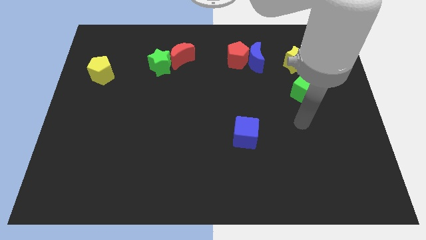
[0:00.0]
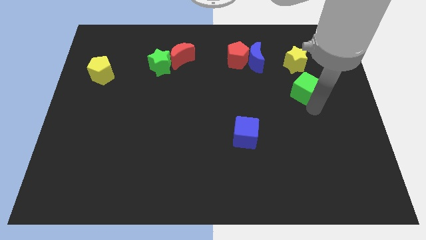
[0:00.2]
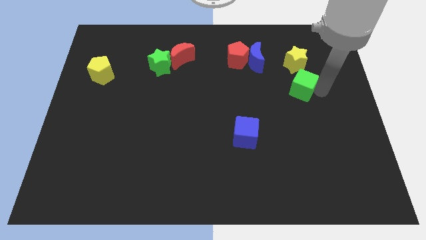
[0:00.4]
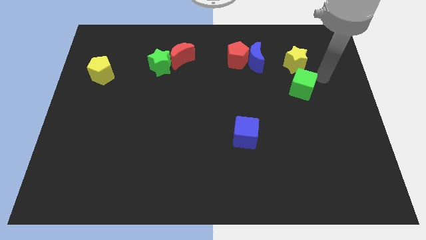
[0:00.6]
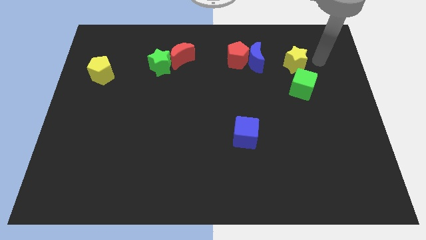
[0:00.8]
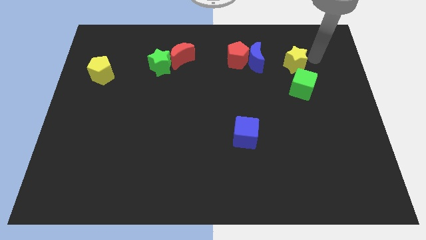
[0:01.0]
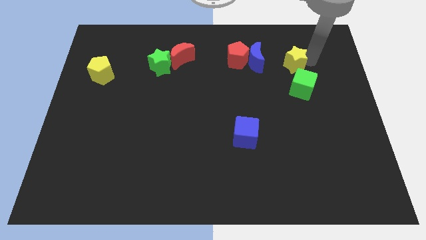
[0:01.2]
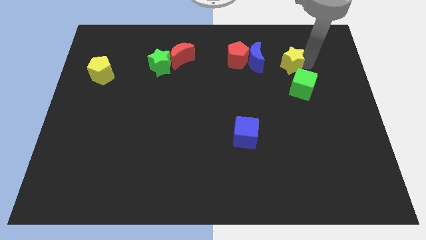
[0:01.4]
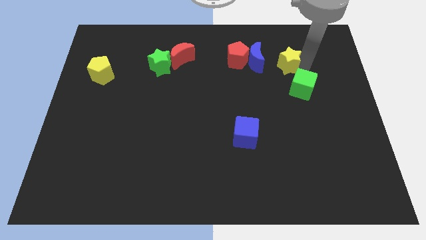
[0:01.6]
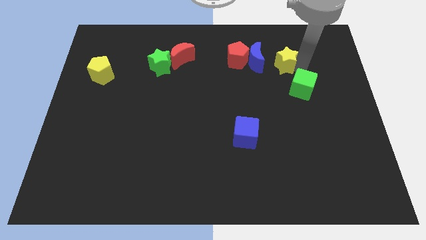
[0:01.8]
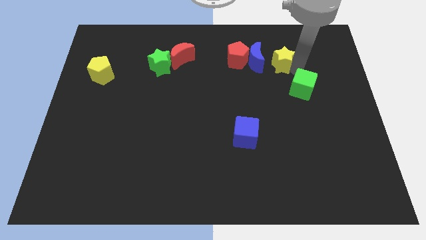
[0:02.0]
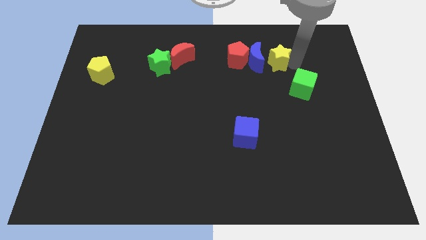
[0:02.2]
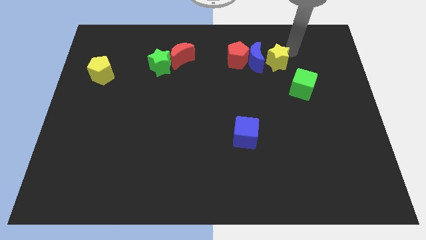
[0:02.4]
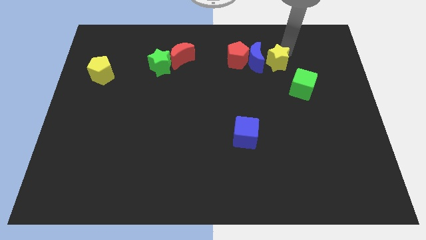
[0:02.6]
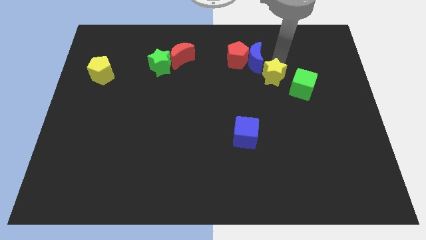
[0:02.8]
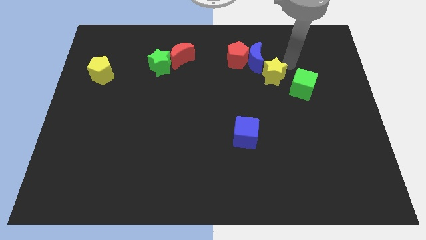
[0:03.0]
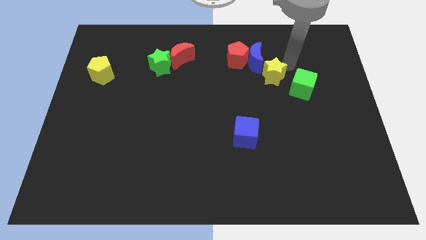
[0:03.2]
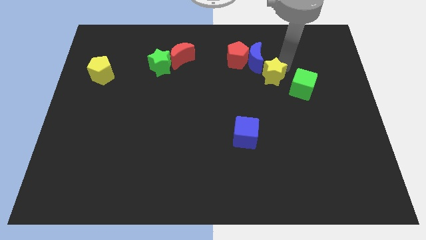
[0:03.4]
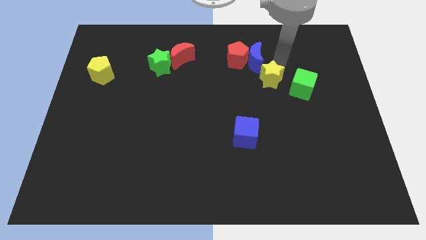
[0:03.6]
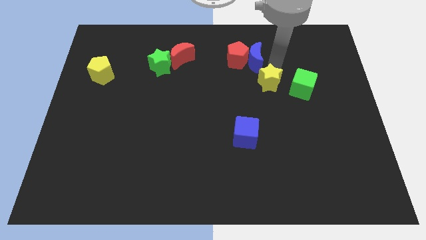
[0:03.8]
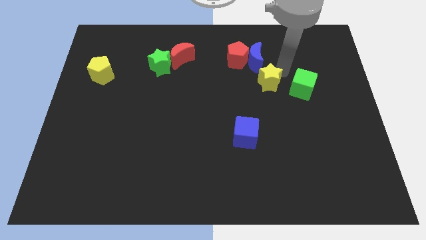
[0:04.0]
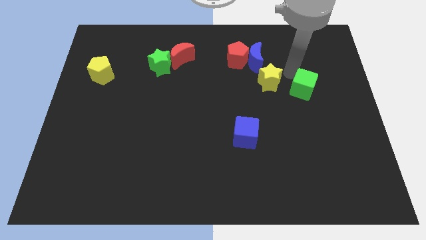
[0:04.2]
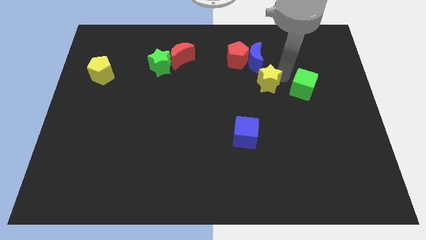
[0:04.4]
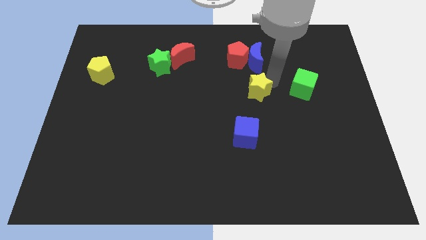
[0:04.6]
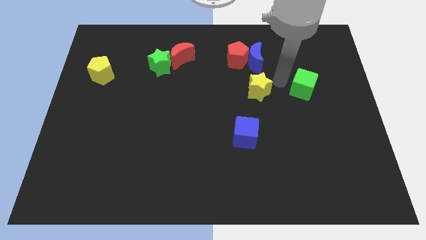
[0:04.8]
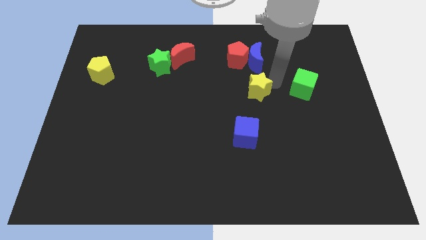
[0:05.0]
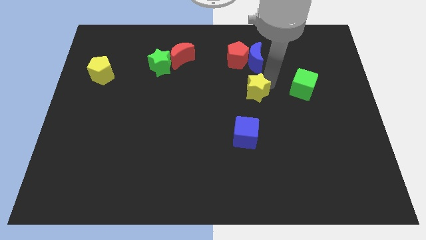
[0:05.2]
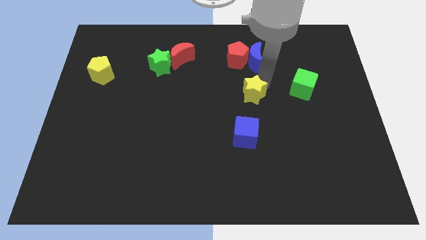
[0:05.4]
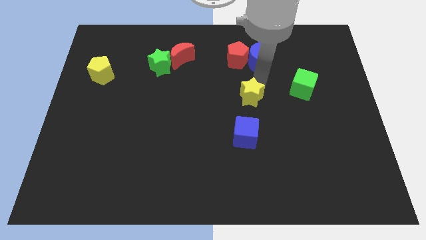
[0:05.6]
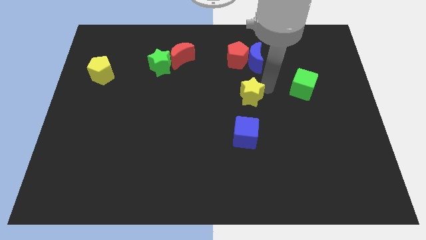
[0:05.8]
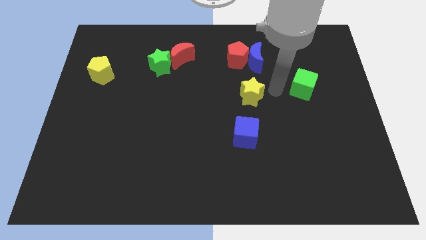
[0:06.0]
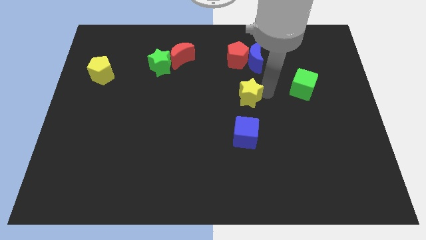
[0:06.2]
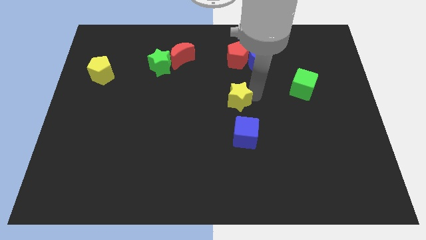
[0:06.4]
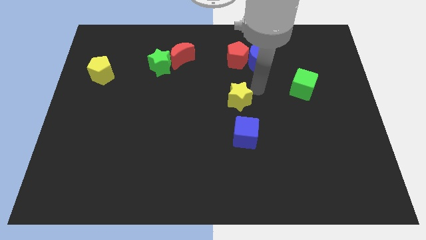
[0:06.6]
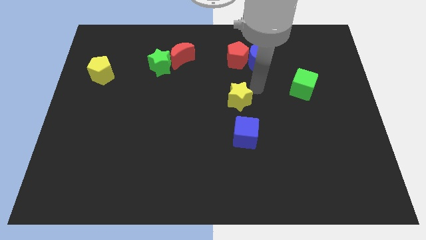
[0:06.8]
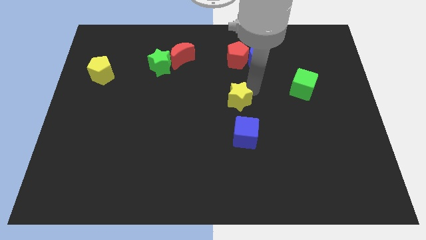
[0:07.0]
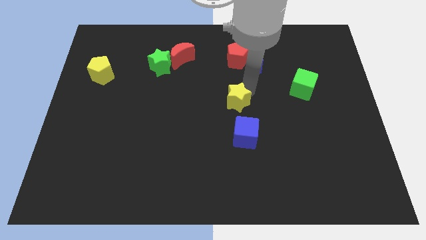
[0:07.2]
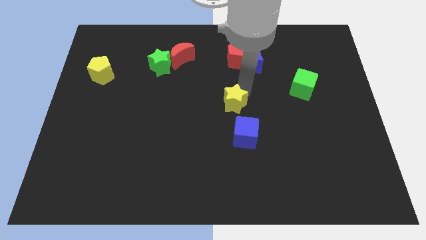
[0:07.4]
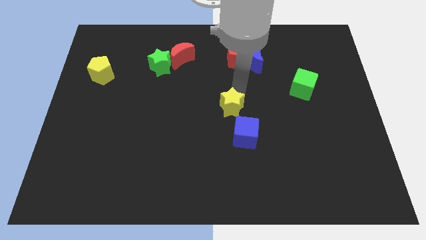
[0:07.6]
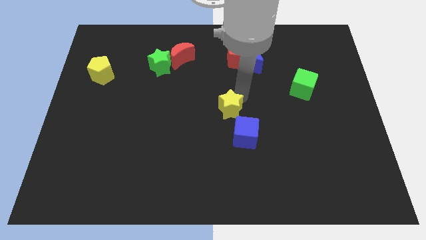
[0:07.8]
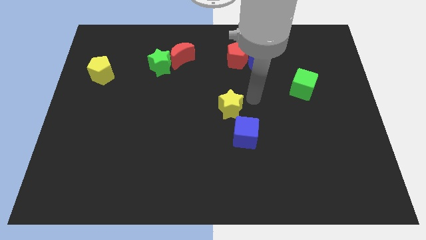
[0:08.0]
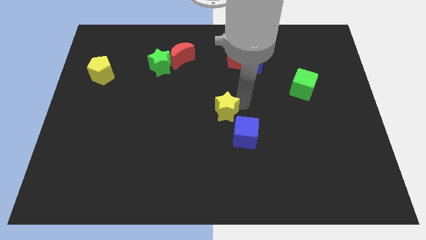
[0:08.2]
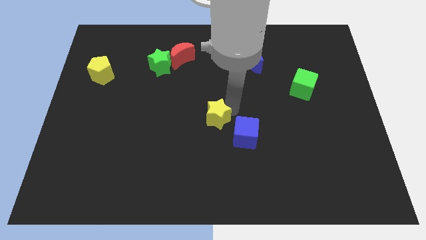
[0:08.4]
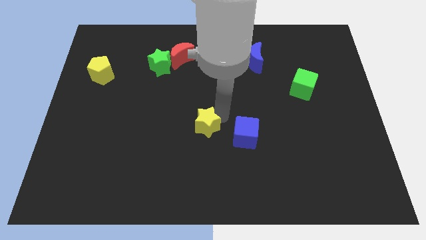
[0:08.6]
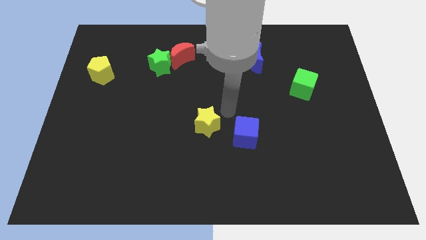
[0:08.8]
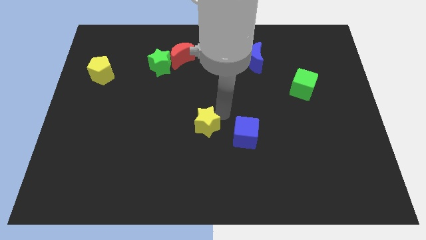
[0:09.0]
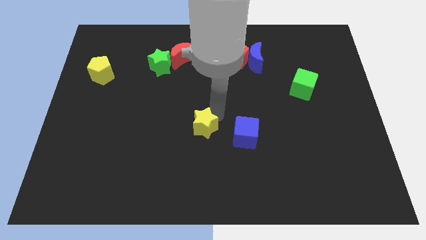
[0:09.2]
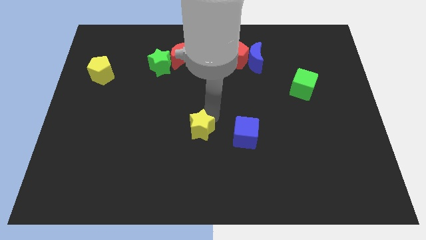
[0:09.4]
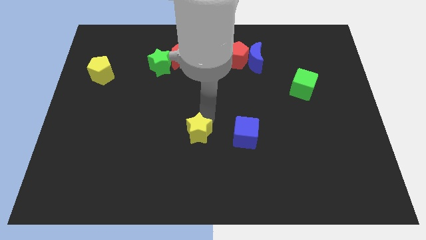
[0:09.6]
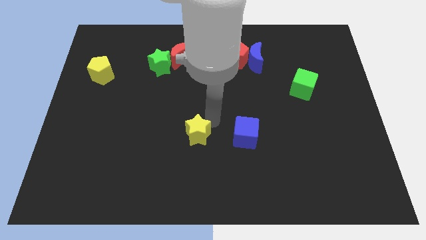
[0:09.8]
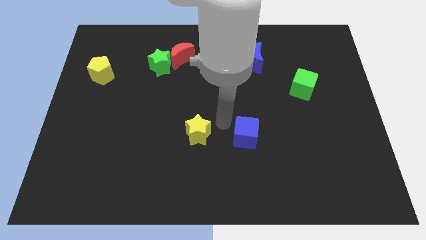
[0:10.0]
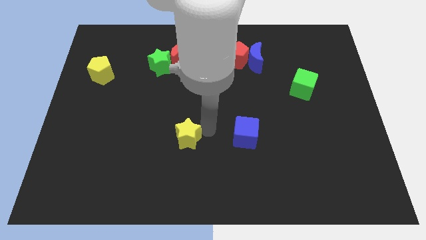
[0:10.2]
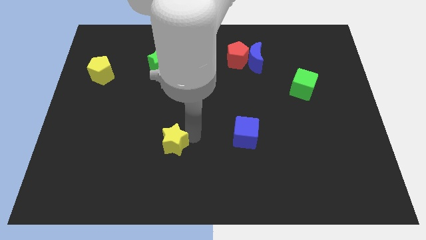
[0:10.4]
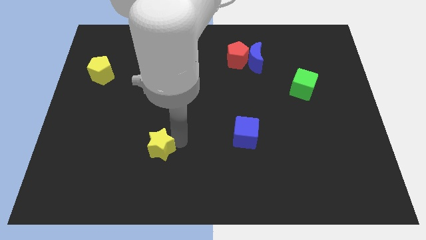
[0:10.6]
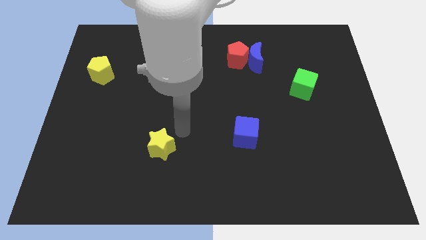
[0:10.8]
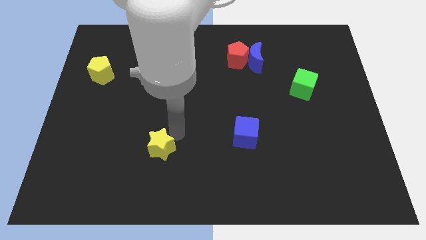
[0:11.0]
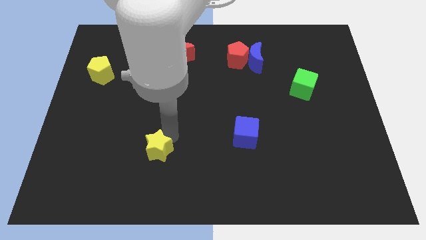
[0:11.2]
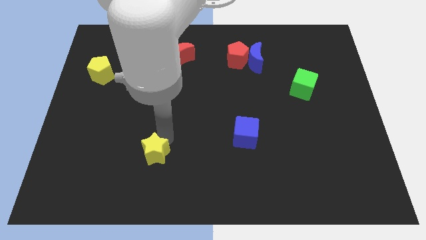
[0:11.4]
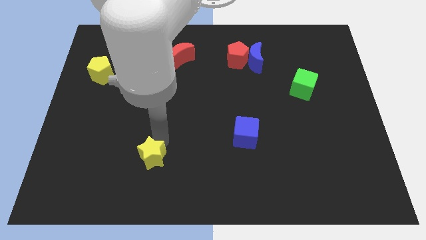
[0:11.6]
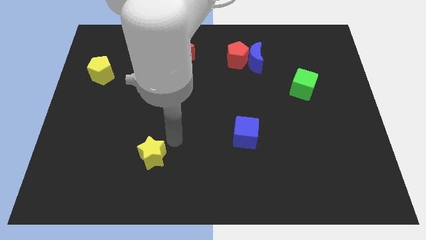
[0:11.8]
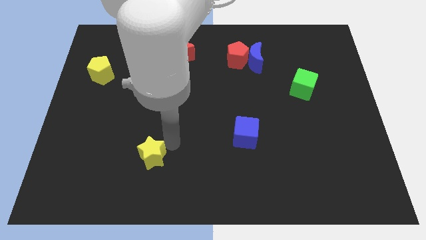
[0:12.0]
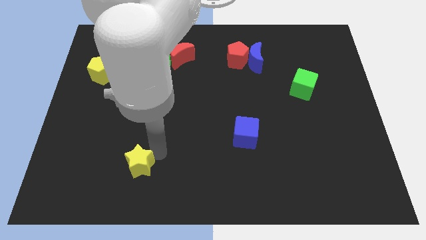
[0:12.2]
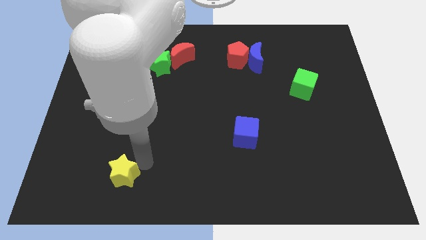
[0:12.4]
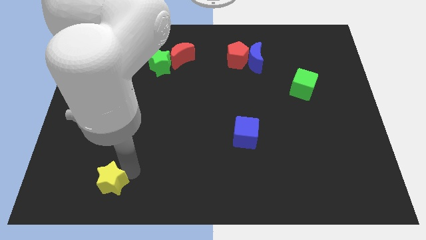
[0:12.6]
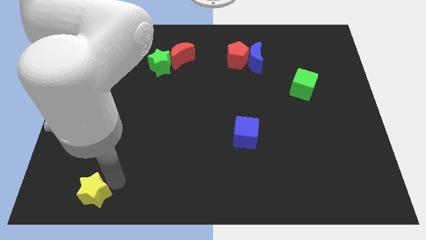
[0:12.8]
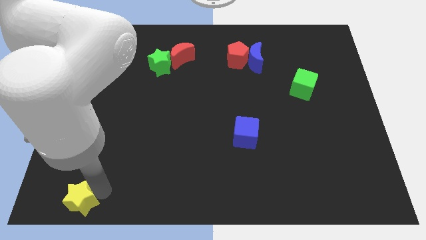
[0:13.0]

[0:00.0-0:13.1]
push the yellow star to the bottom left of the board
